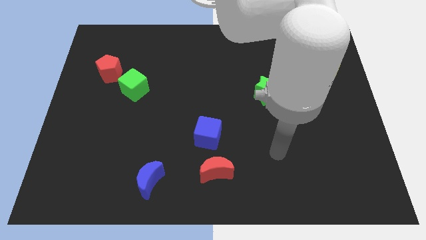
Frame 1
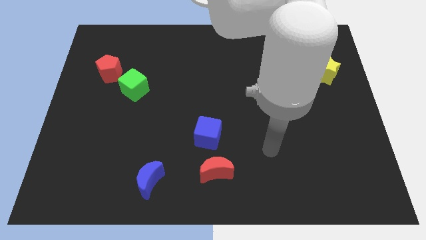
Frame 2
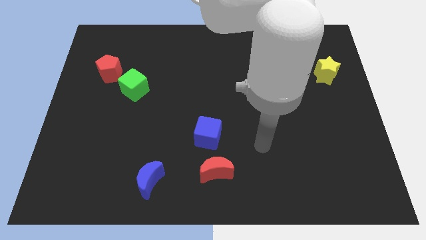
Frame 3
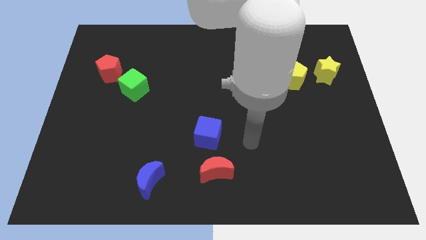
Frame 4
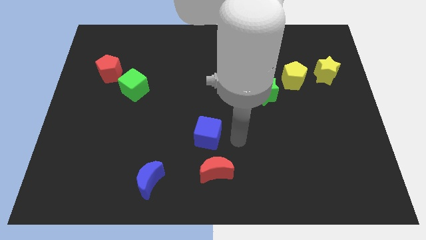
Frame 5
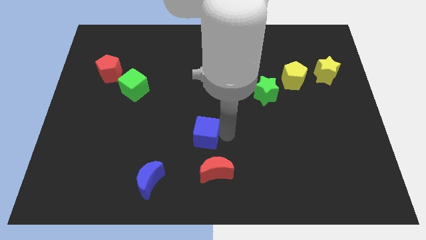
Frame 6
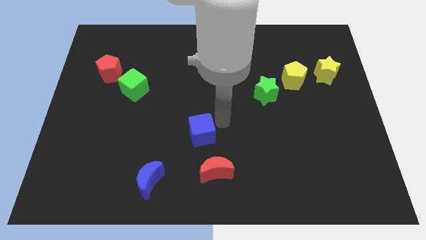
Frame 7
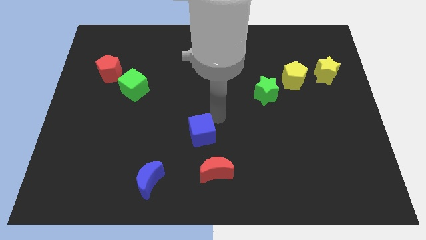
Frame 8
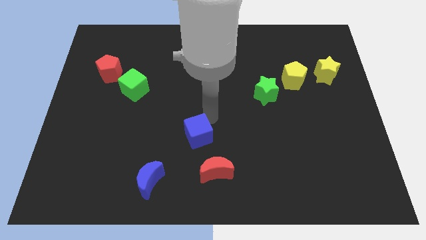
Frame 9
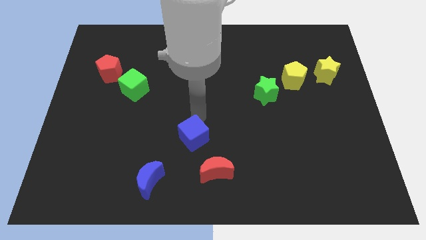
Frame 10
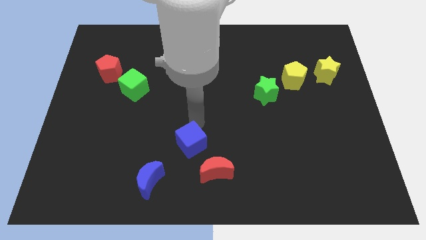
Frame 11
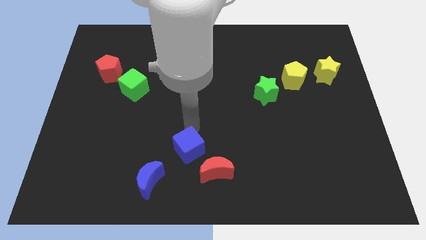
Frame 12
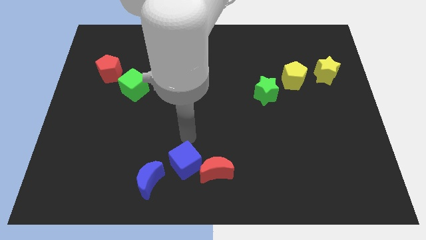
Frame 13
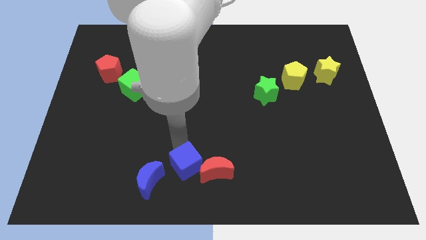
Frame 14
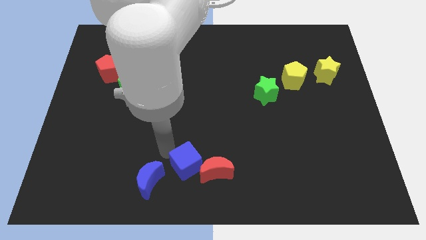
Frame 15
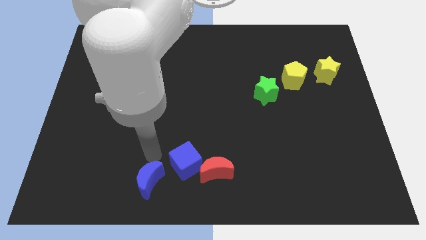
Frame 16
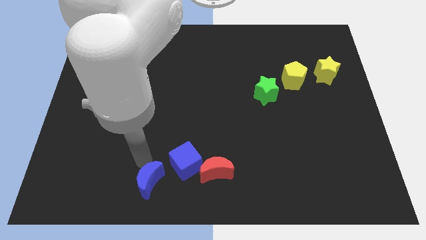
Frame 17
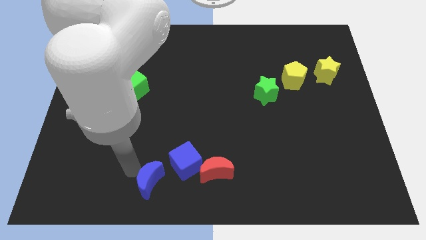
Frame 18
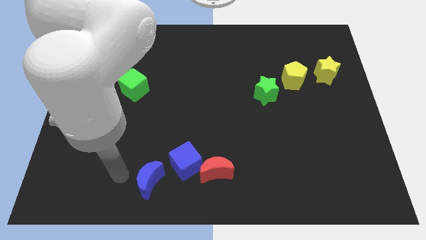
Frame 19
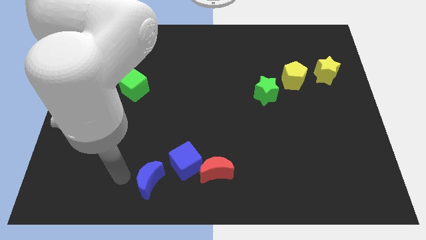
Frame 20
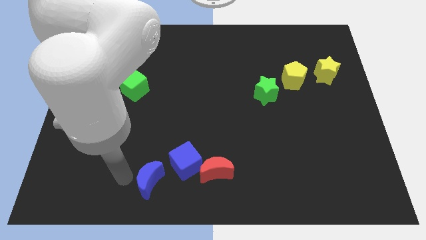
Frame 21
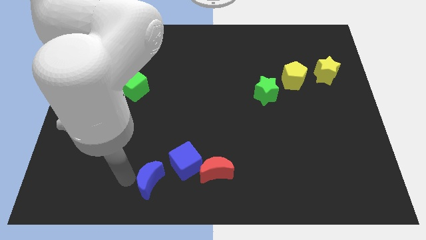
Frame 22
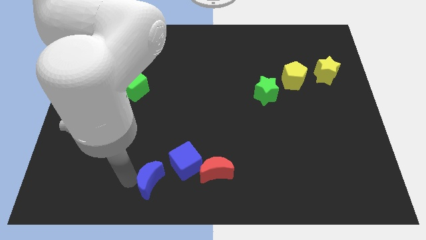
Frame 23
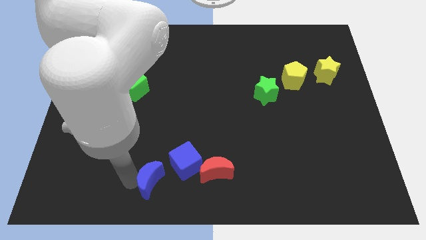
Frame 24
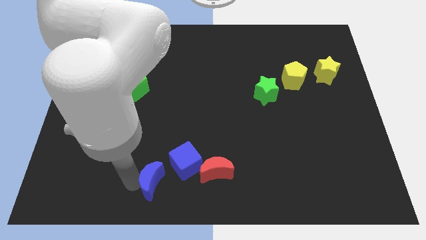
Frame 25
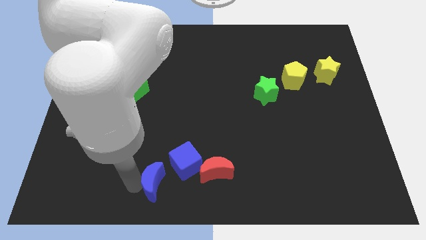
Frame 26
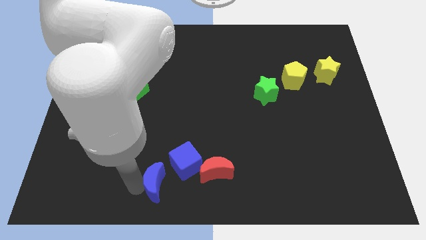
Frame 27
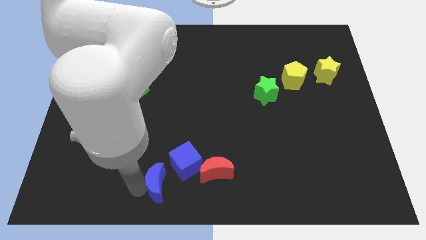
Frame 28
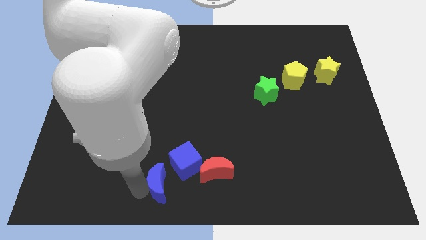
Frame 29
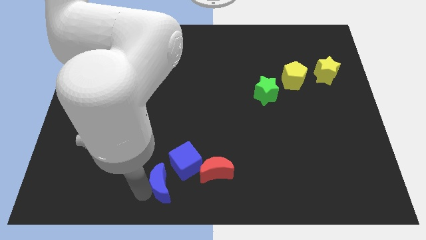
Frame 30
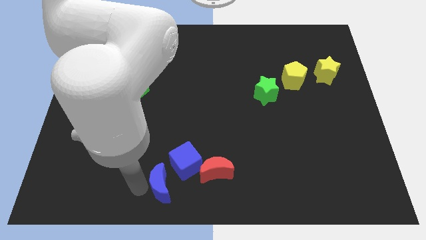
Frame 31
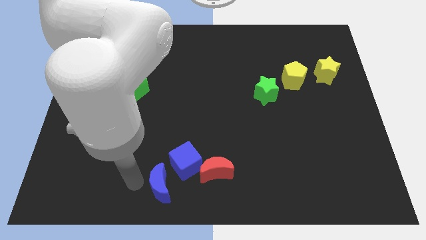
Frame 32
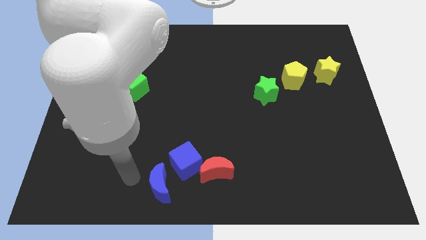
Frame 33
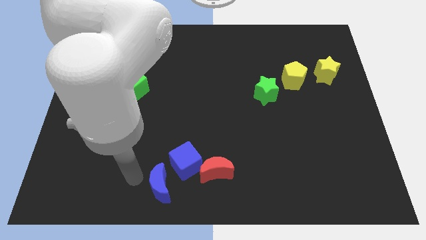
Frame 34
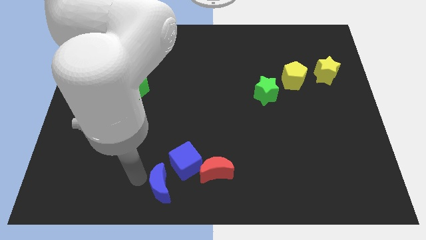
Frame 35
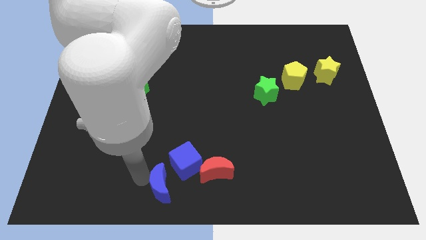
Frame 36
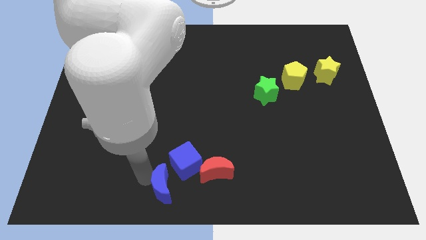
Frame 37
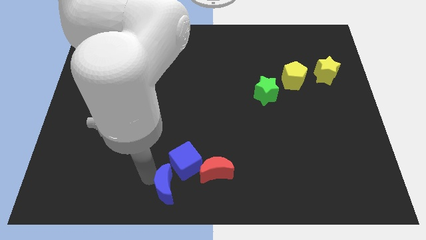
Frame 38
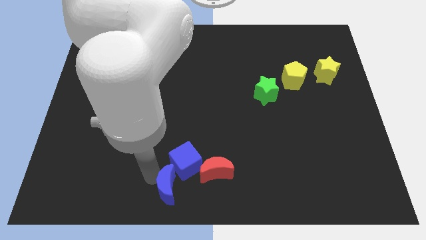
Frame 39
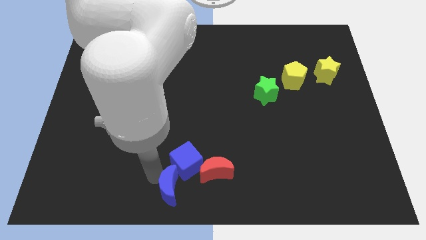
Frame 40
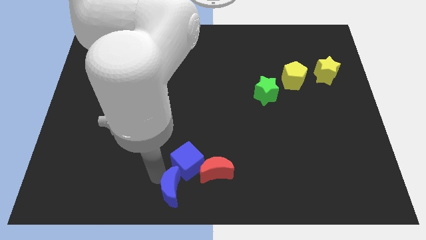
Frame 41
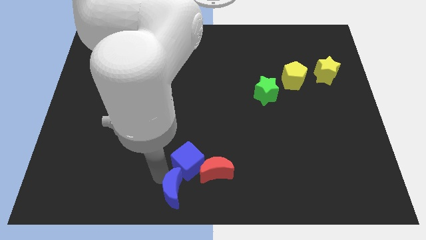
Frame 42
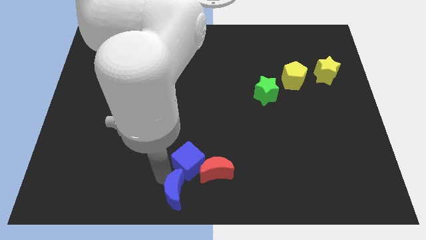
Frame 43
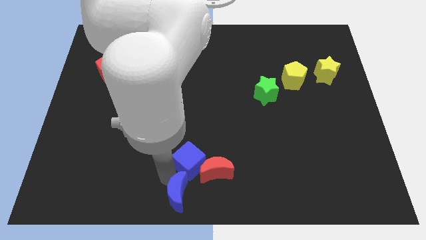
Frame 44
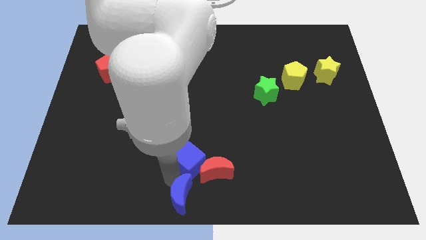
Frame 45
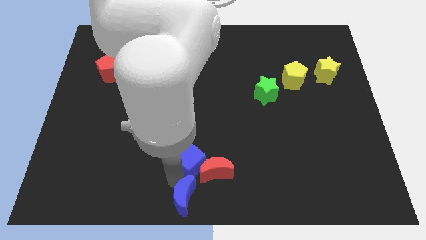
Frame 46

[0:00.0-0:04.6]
push the blue moon right somewhat

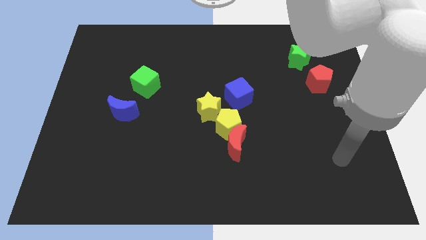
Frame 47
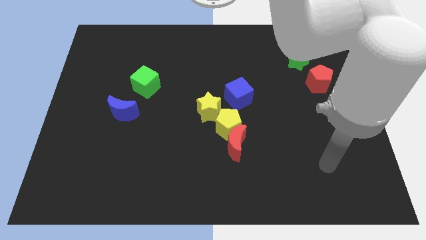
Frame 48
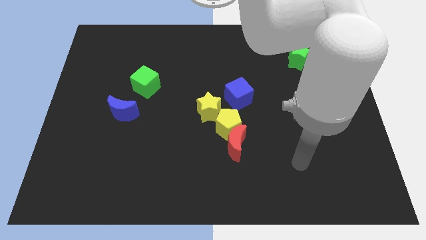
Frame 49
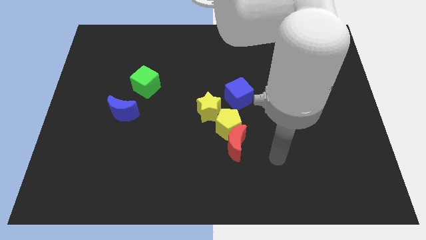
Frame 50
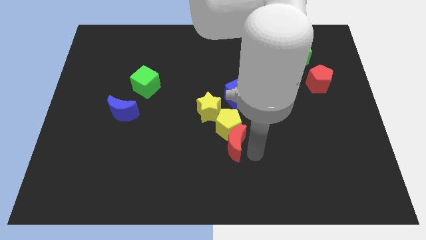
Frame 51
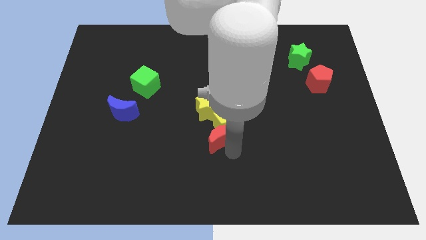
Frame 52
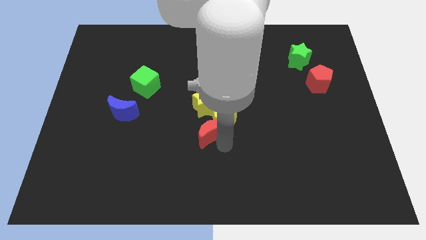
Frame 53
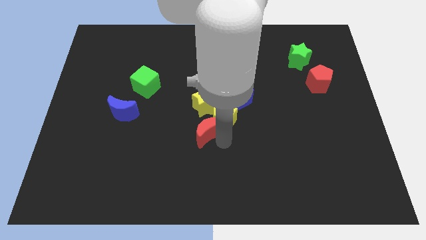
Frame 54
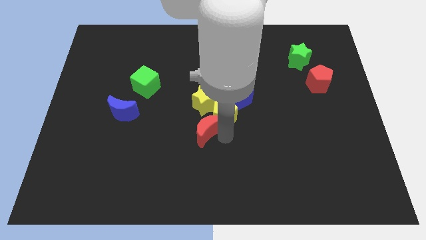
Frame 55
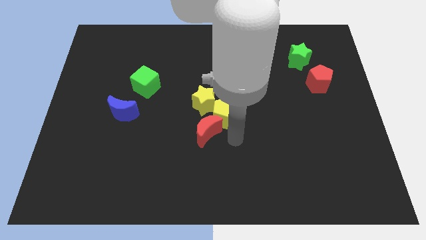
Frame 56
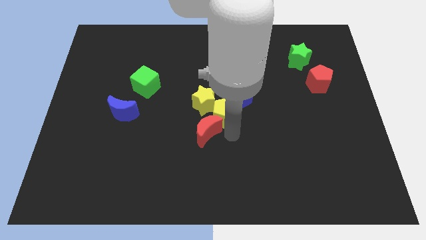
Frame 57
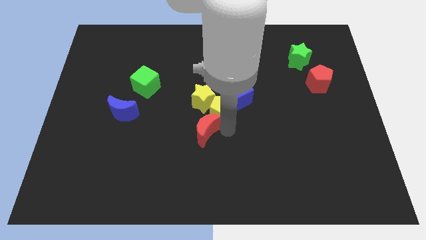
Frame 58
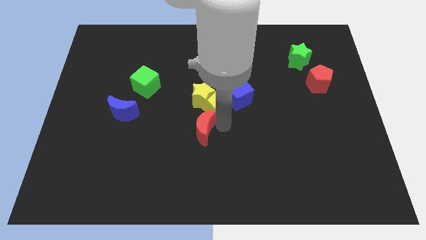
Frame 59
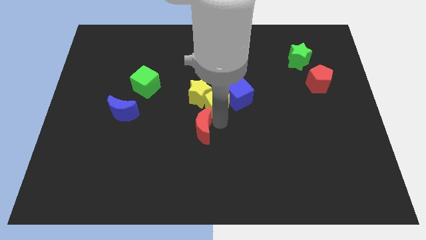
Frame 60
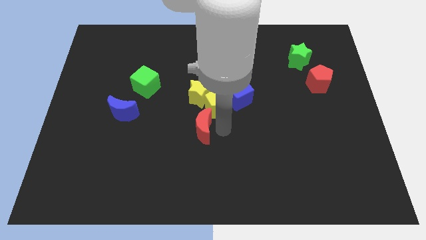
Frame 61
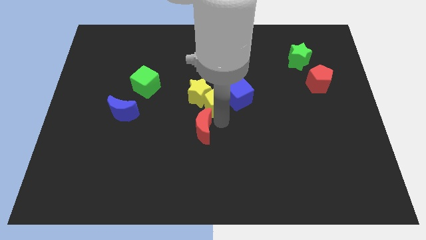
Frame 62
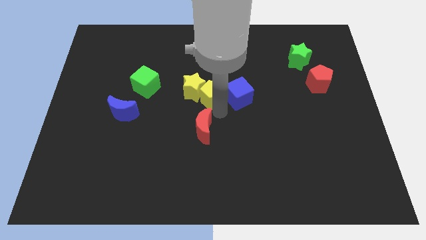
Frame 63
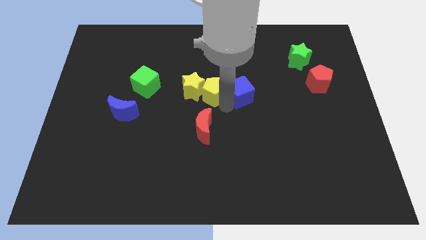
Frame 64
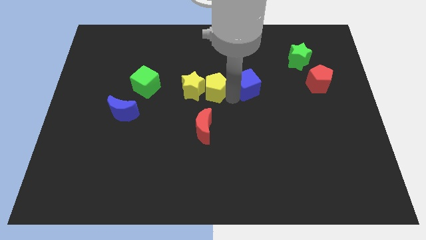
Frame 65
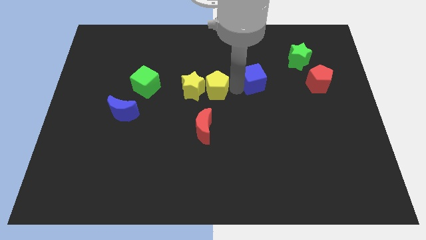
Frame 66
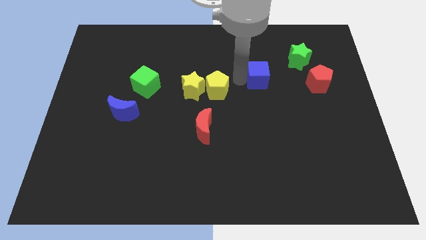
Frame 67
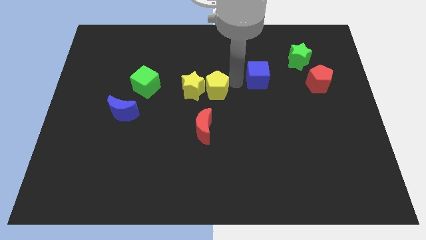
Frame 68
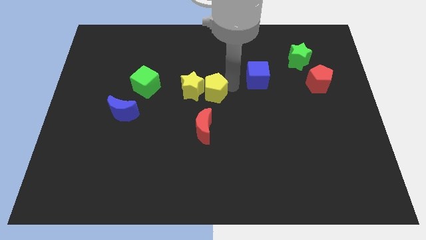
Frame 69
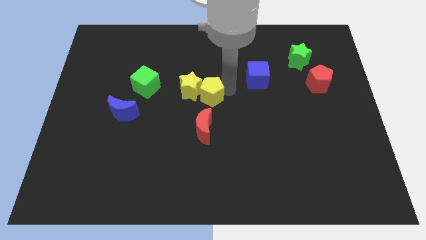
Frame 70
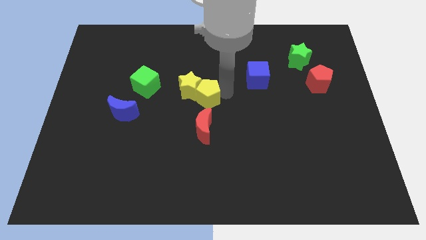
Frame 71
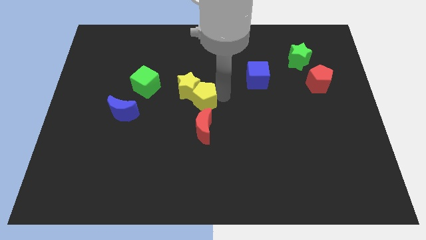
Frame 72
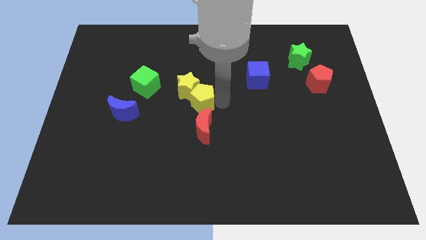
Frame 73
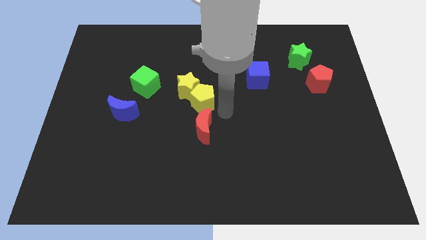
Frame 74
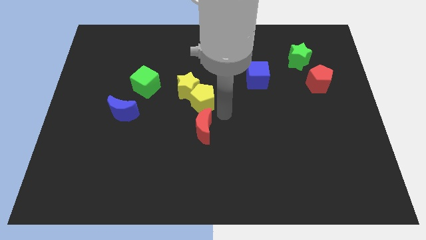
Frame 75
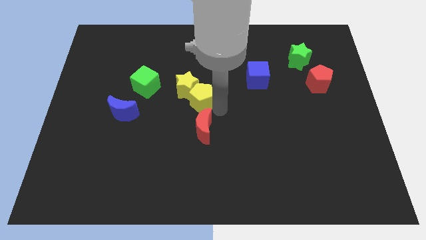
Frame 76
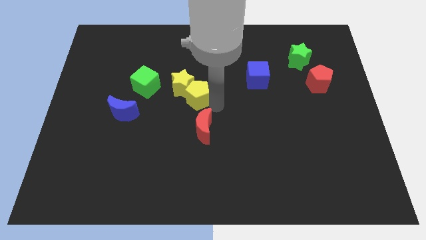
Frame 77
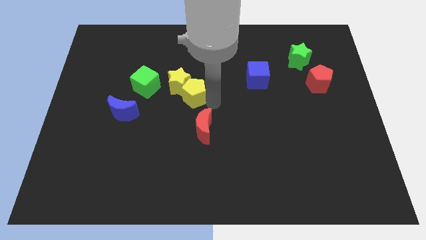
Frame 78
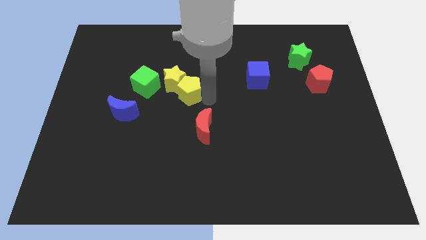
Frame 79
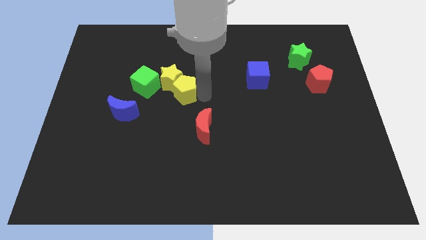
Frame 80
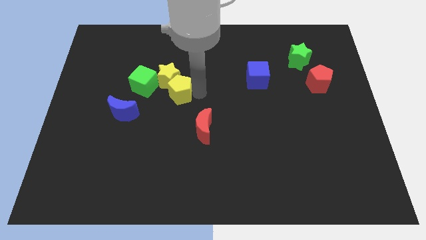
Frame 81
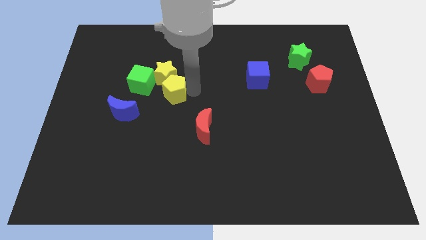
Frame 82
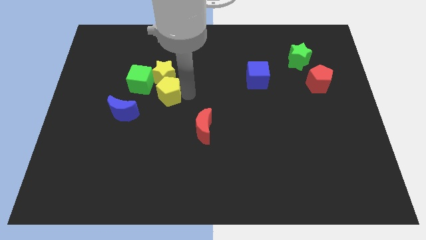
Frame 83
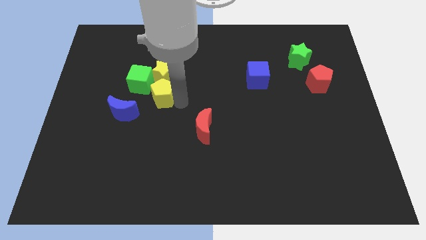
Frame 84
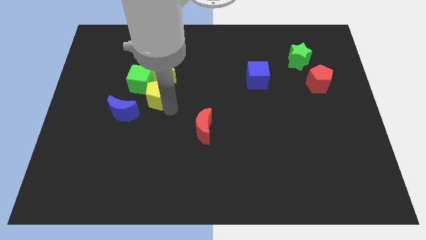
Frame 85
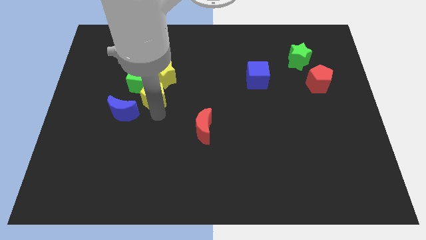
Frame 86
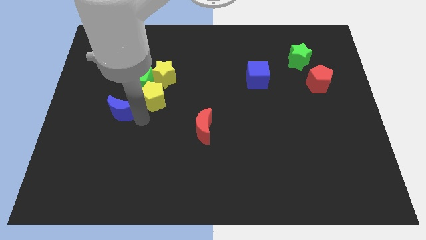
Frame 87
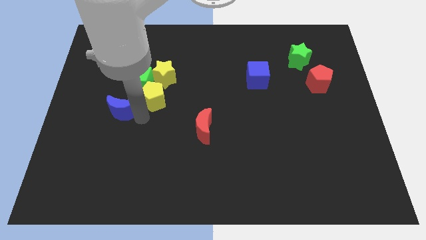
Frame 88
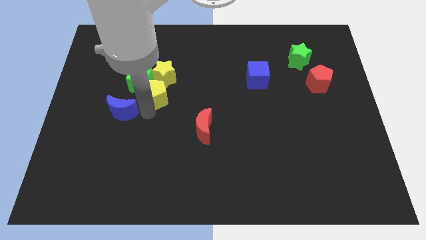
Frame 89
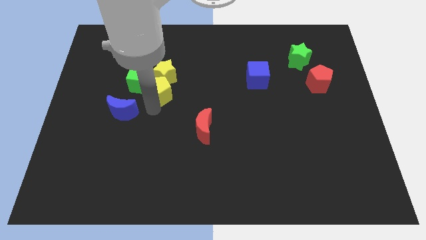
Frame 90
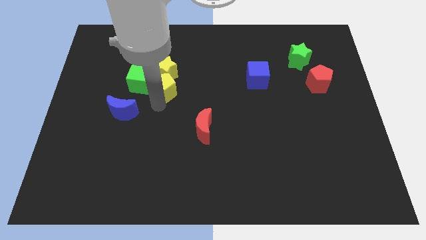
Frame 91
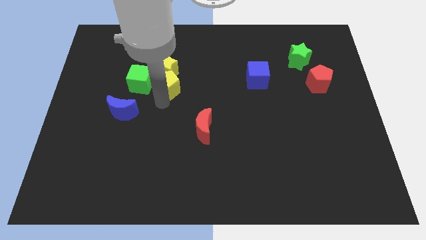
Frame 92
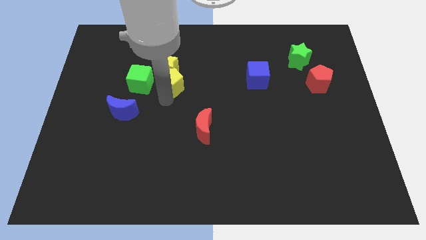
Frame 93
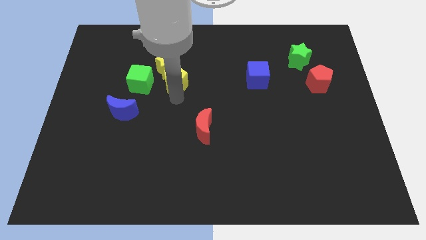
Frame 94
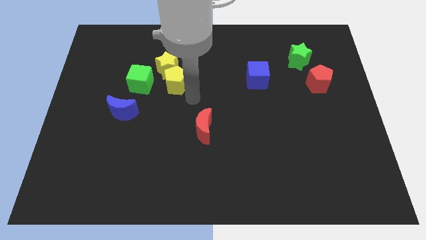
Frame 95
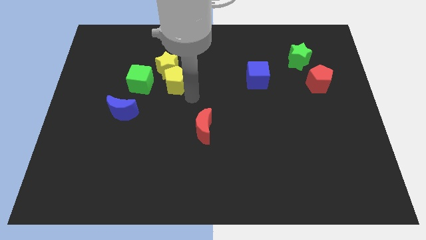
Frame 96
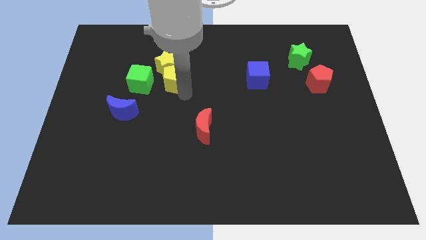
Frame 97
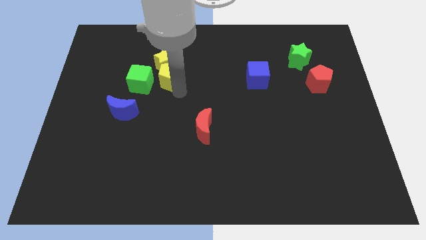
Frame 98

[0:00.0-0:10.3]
slide the yellow pentagon up and then left
